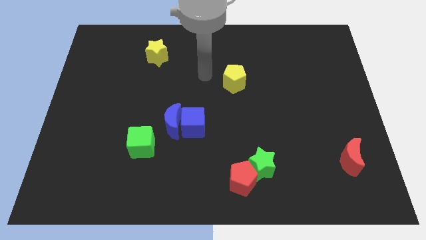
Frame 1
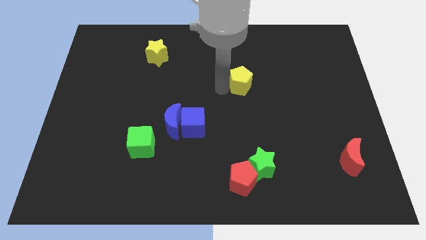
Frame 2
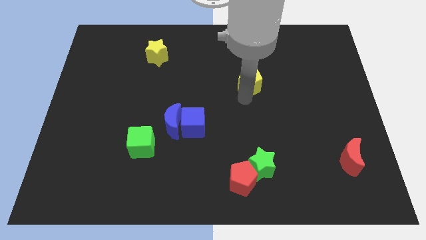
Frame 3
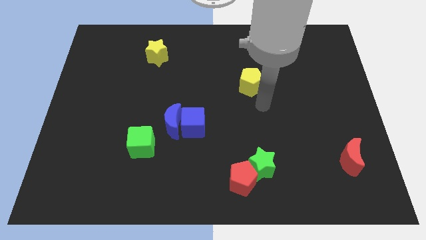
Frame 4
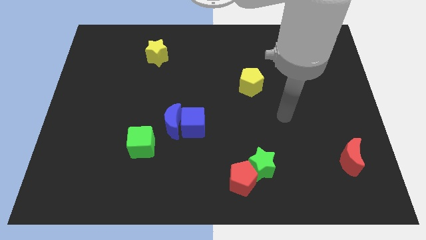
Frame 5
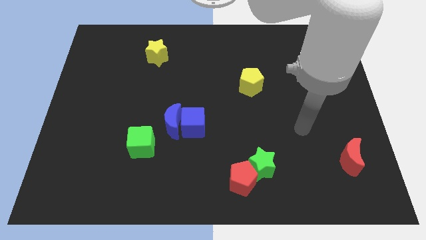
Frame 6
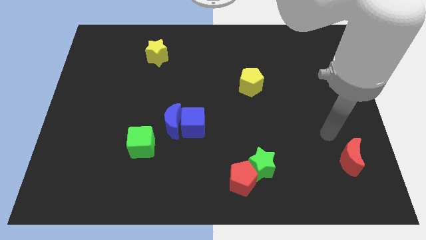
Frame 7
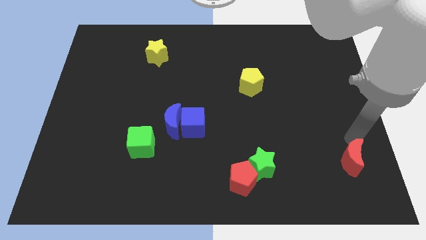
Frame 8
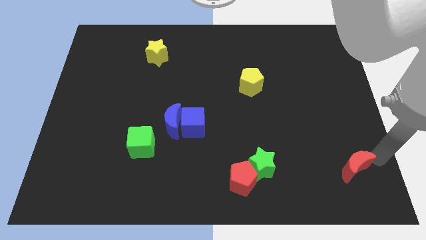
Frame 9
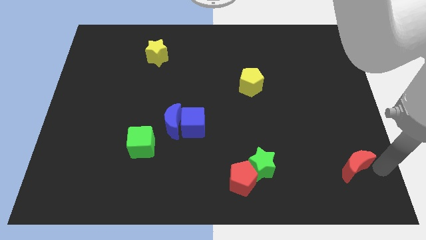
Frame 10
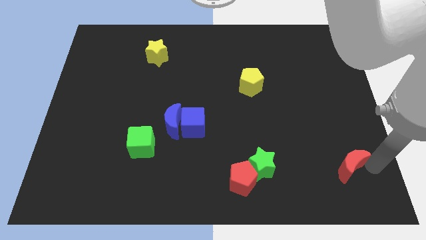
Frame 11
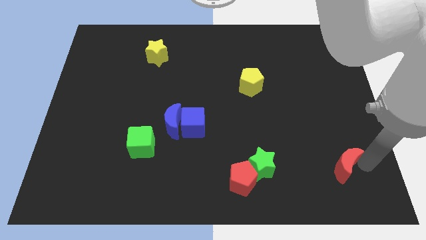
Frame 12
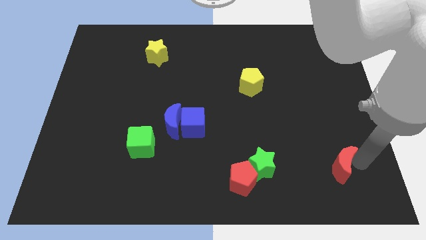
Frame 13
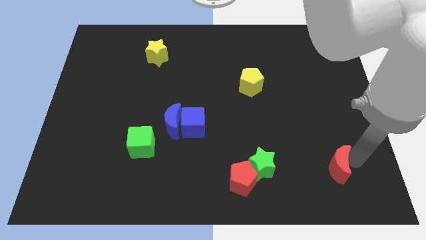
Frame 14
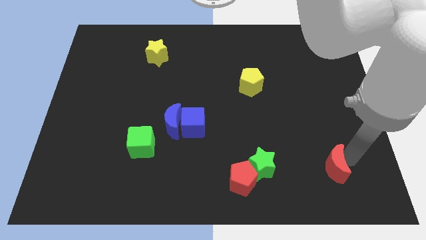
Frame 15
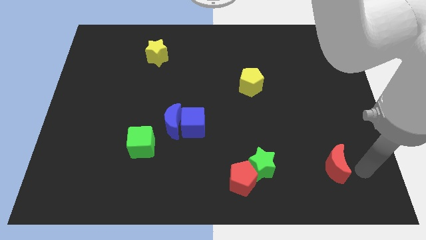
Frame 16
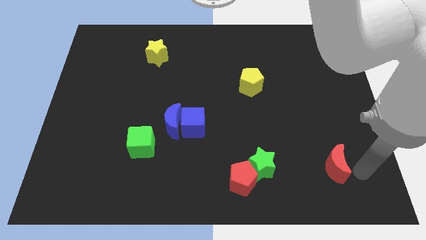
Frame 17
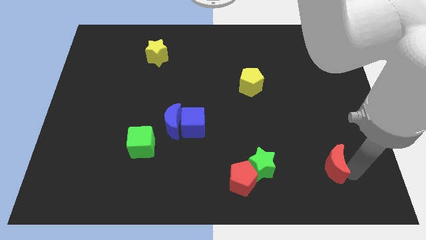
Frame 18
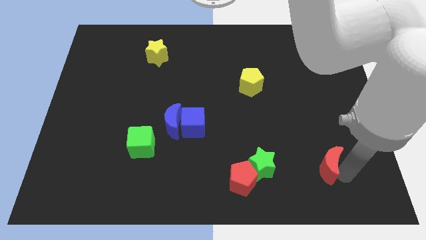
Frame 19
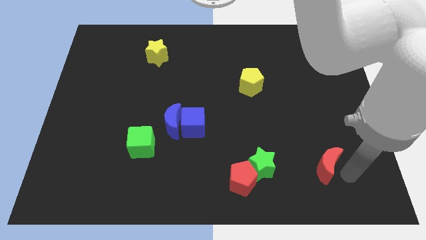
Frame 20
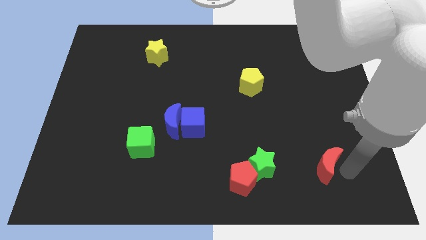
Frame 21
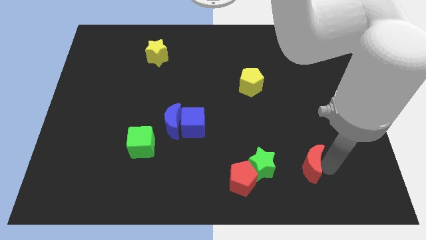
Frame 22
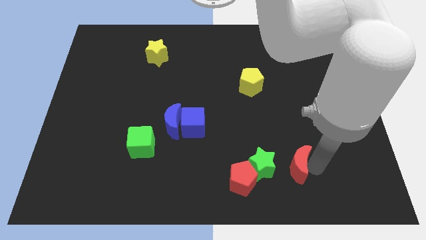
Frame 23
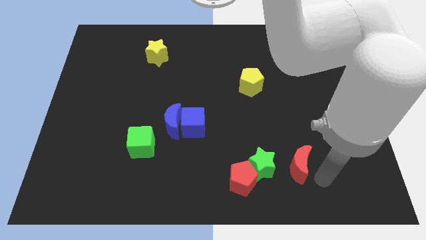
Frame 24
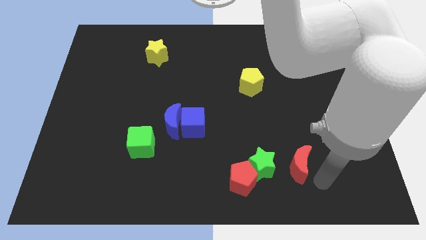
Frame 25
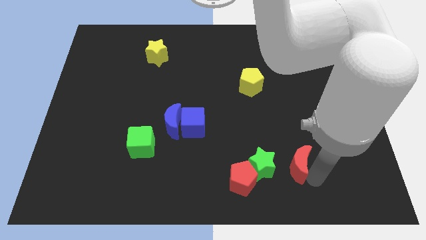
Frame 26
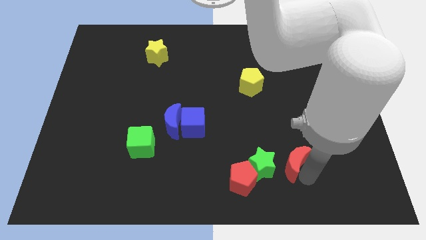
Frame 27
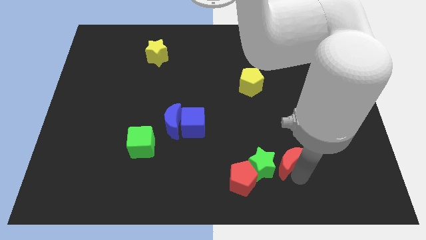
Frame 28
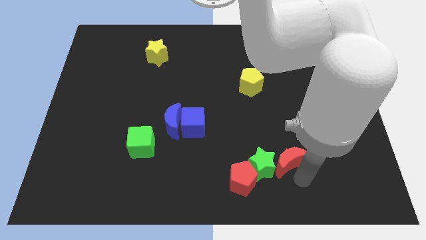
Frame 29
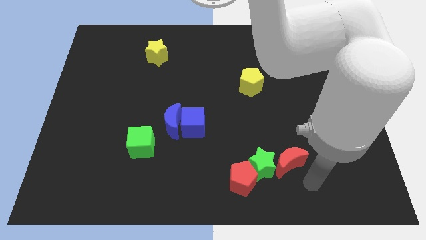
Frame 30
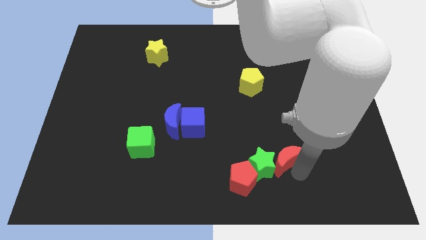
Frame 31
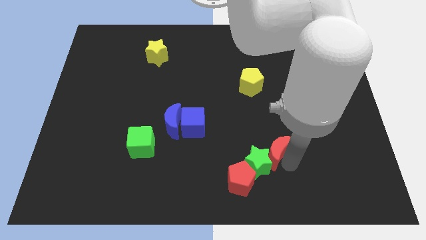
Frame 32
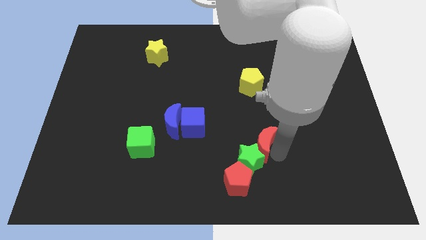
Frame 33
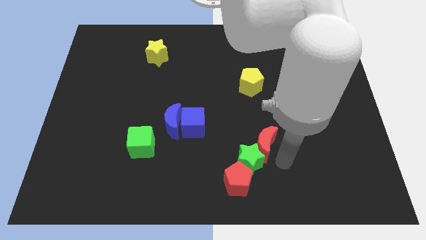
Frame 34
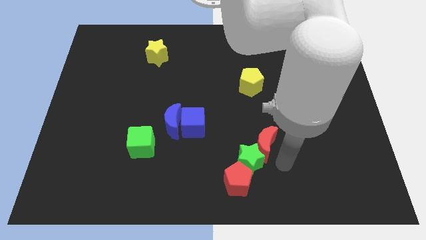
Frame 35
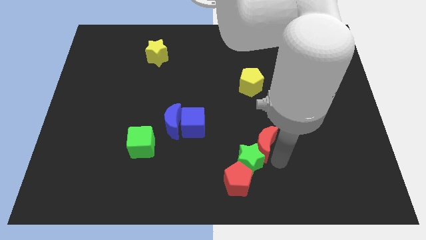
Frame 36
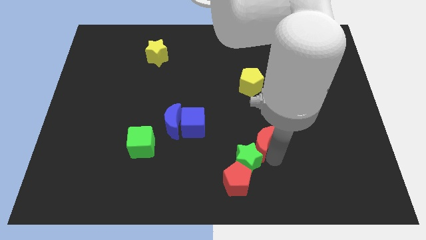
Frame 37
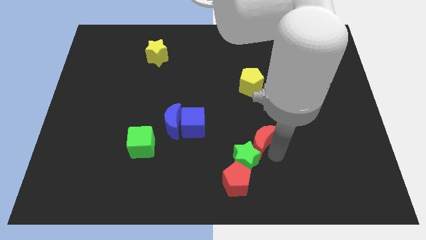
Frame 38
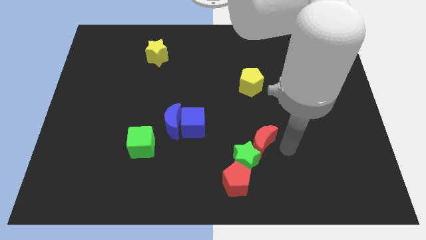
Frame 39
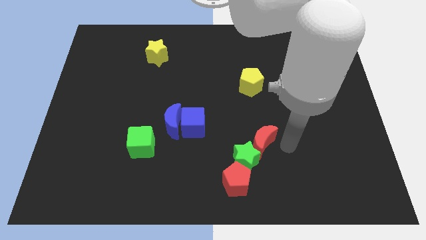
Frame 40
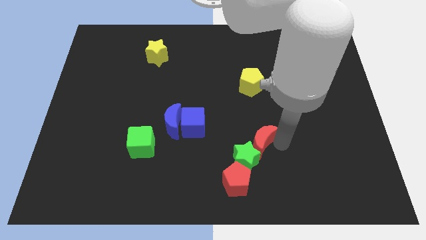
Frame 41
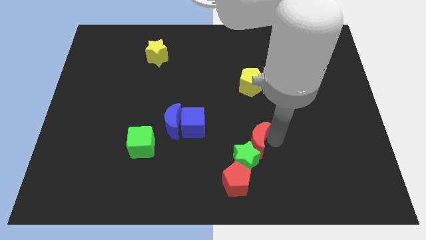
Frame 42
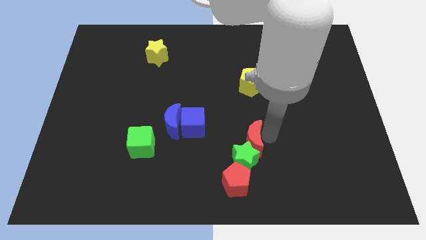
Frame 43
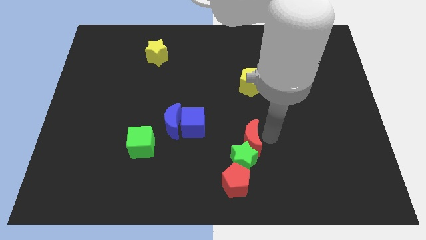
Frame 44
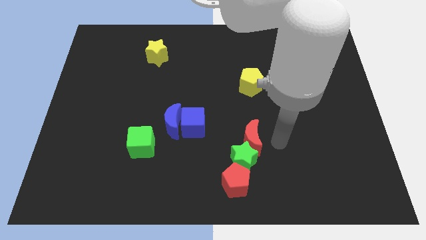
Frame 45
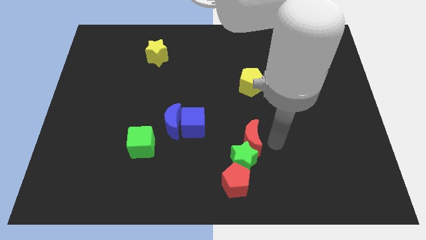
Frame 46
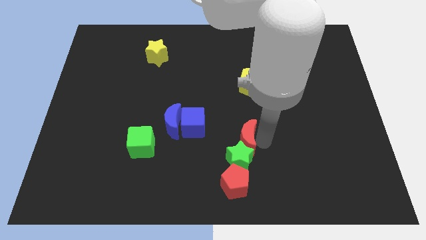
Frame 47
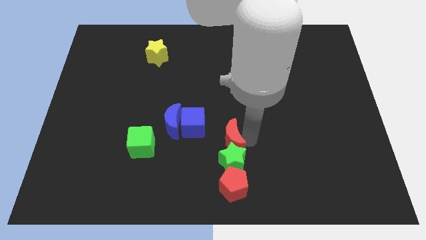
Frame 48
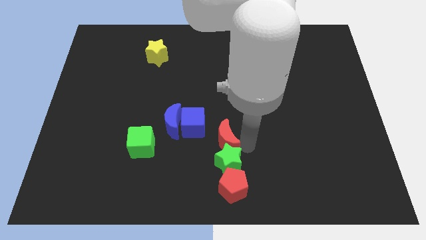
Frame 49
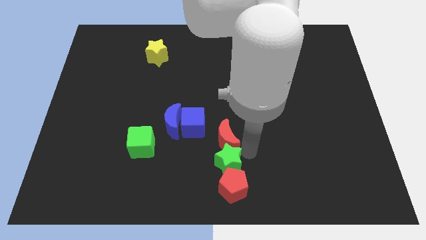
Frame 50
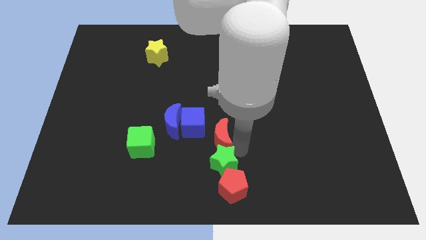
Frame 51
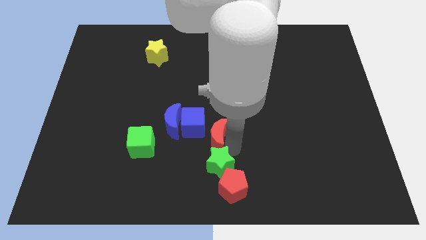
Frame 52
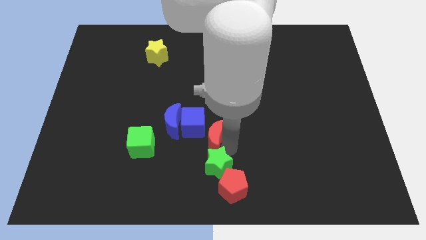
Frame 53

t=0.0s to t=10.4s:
push the red moon to the blue cube

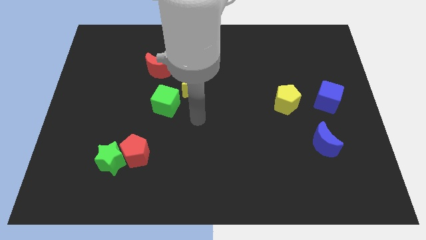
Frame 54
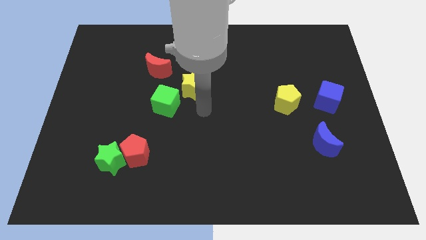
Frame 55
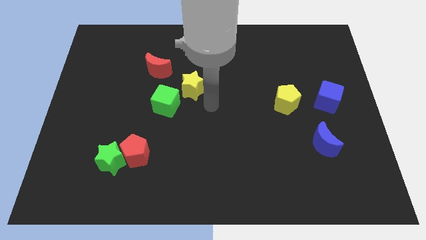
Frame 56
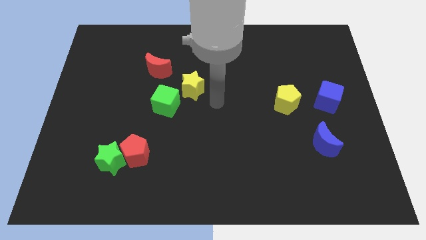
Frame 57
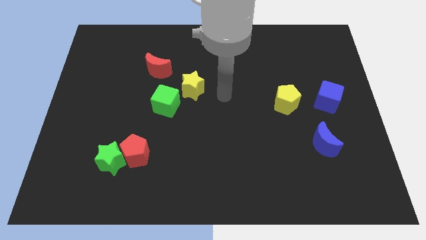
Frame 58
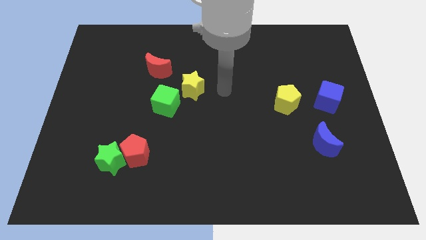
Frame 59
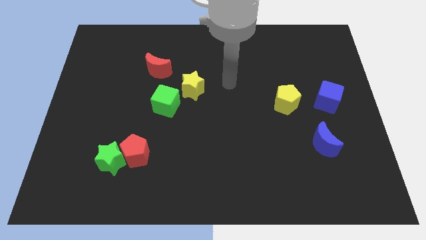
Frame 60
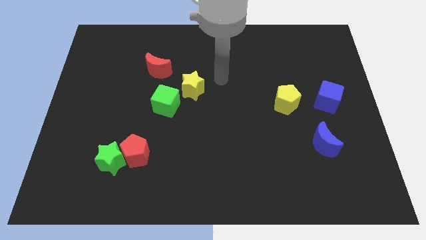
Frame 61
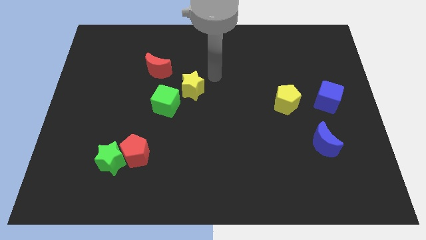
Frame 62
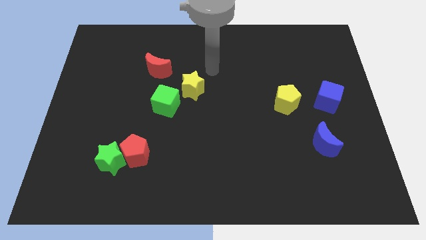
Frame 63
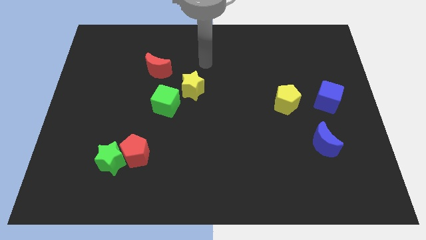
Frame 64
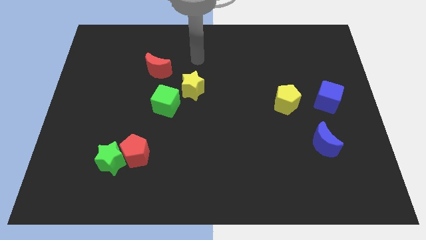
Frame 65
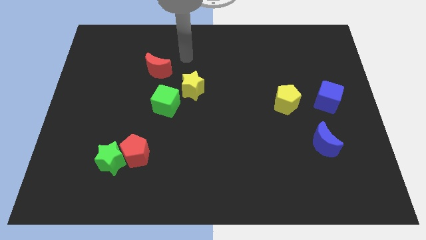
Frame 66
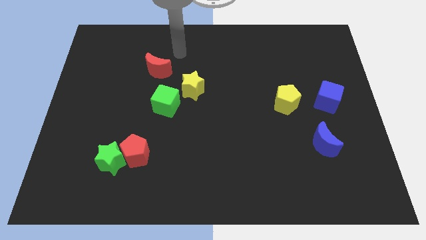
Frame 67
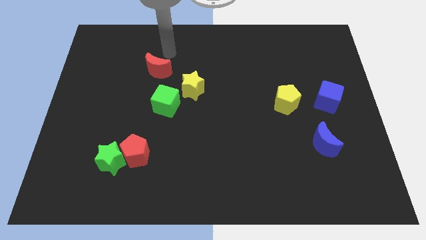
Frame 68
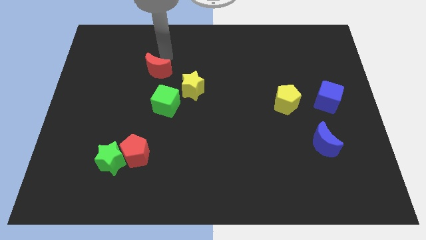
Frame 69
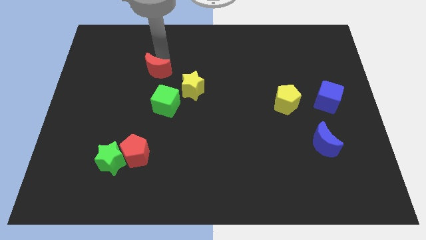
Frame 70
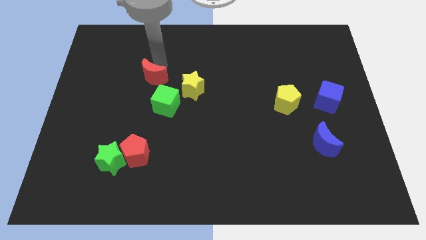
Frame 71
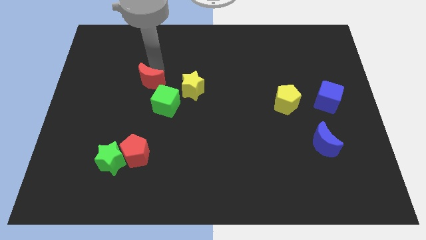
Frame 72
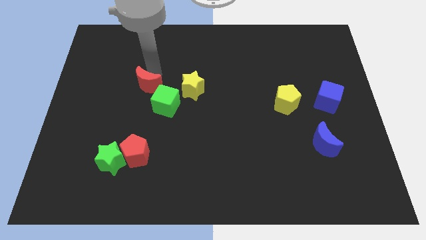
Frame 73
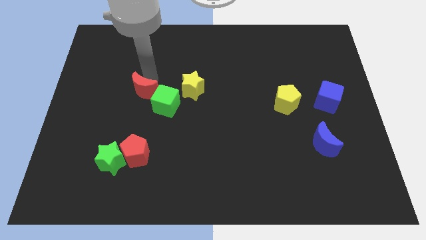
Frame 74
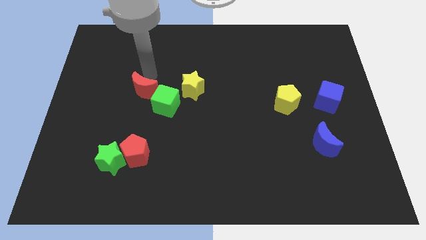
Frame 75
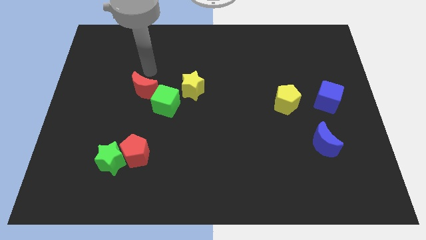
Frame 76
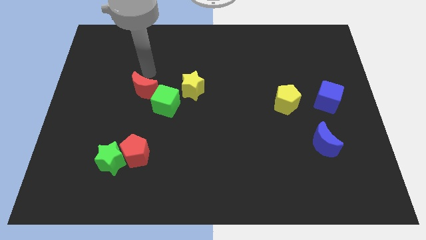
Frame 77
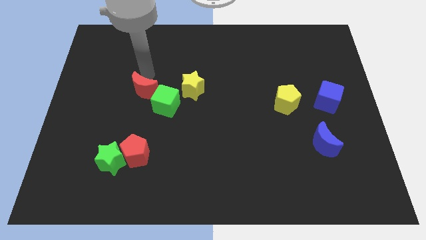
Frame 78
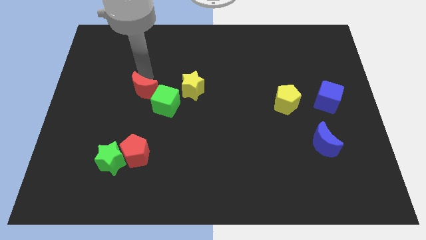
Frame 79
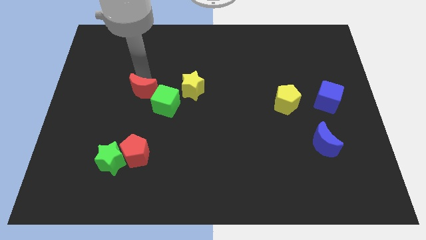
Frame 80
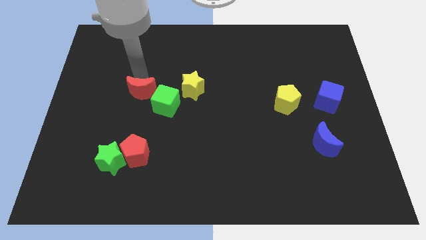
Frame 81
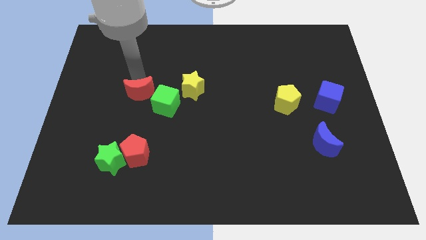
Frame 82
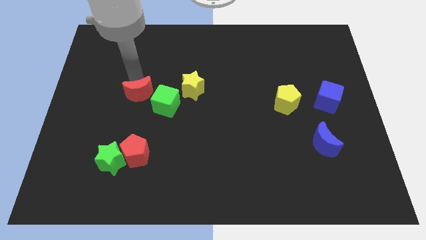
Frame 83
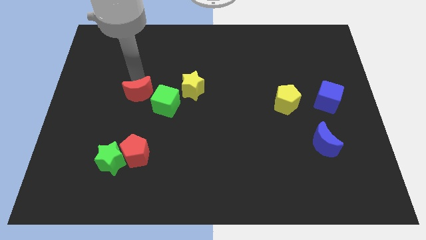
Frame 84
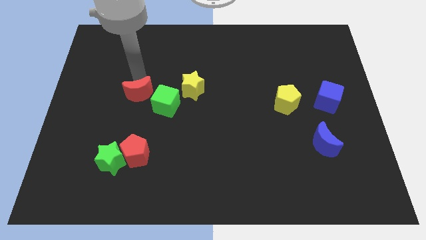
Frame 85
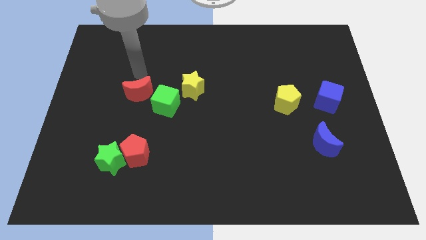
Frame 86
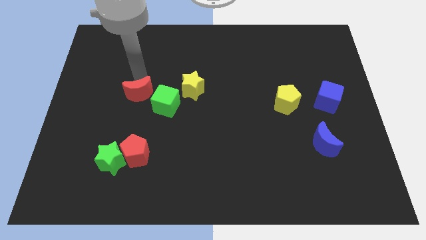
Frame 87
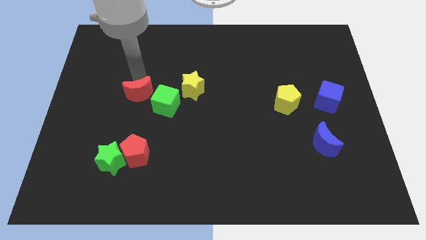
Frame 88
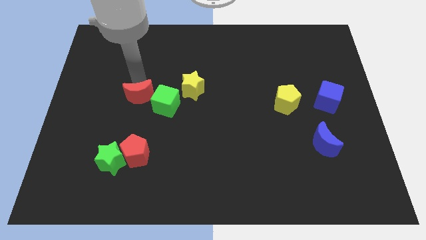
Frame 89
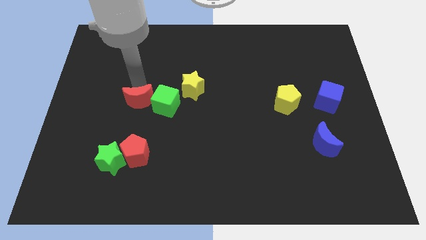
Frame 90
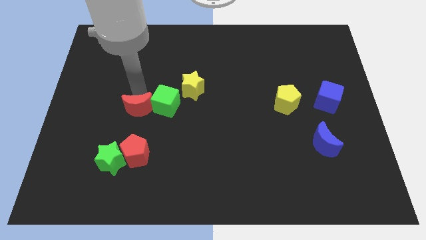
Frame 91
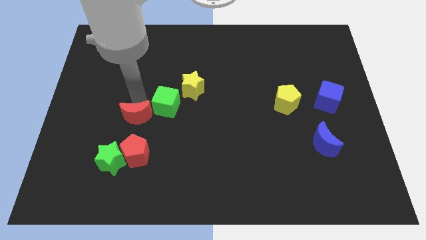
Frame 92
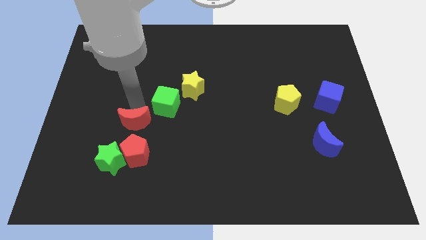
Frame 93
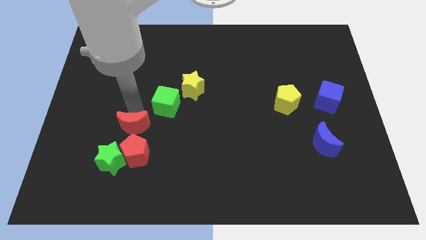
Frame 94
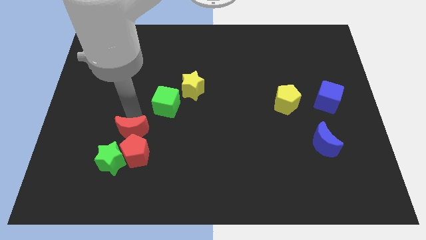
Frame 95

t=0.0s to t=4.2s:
put the red moon close to the red pentagon
